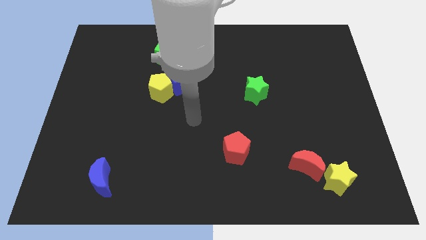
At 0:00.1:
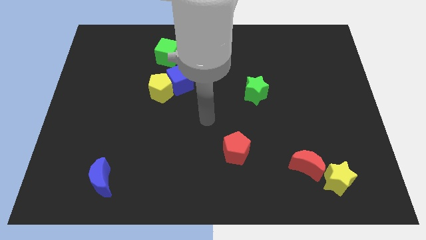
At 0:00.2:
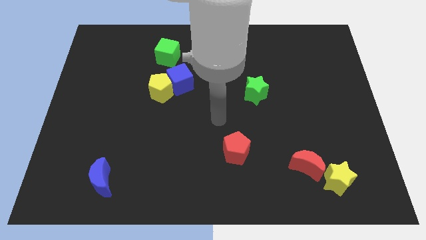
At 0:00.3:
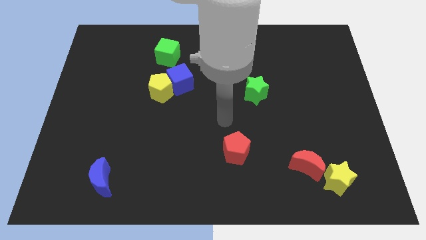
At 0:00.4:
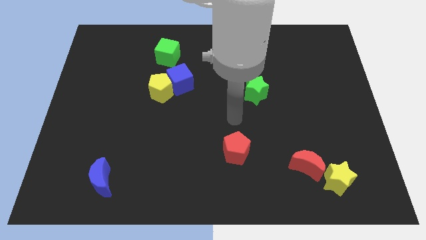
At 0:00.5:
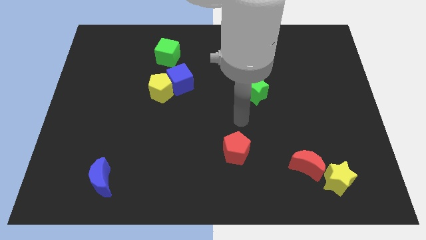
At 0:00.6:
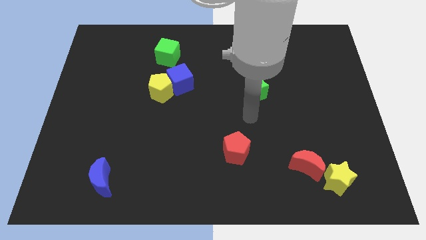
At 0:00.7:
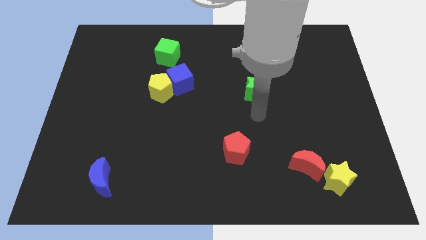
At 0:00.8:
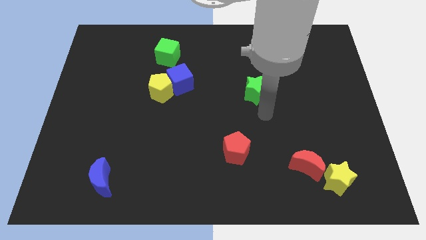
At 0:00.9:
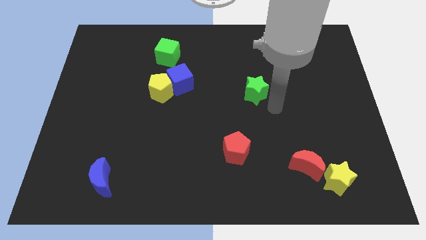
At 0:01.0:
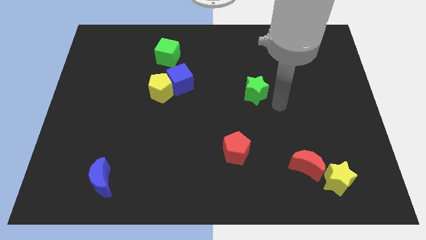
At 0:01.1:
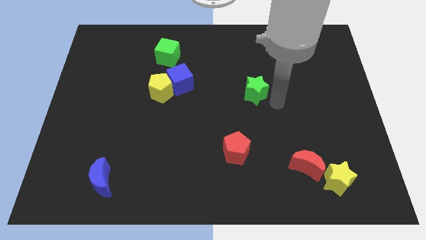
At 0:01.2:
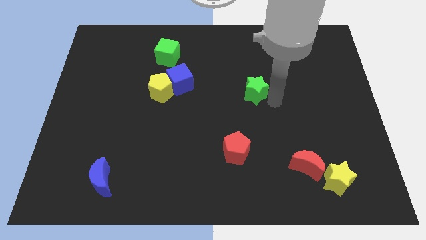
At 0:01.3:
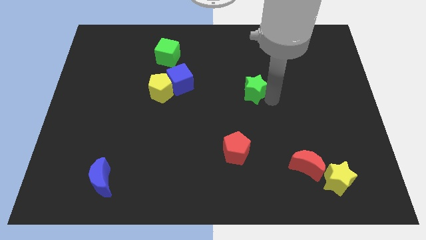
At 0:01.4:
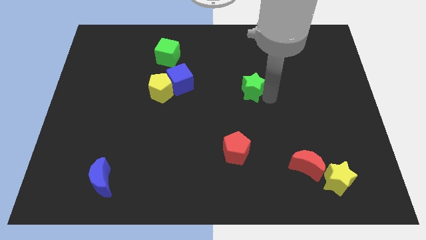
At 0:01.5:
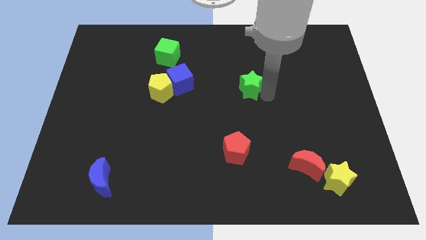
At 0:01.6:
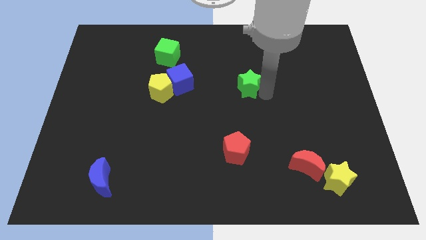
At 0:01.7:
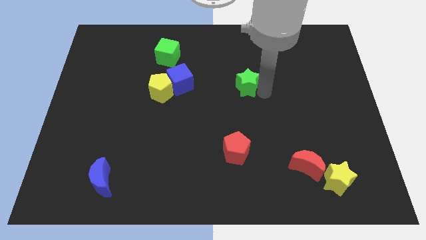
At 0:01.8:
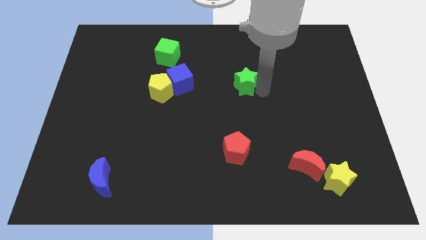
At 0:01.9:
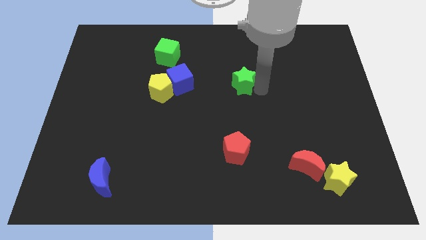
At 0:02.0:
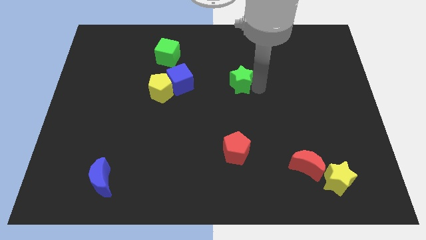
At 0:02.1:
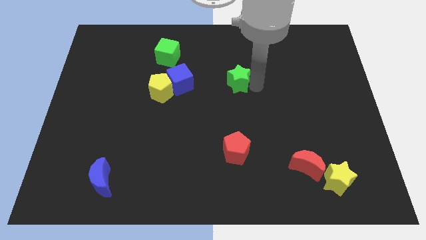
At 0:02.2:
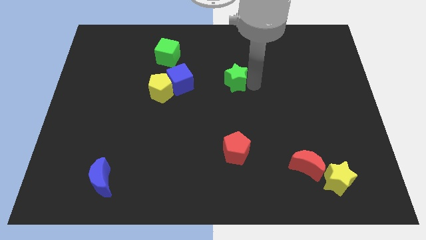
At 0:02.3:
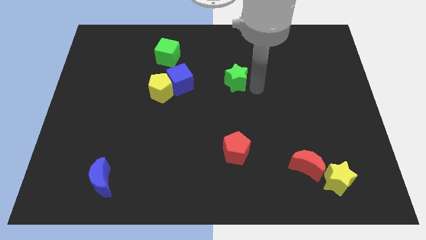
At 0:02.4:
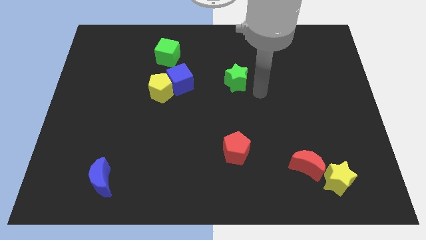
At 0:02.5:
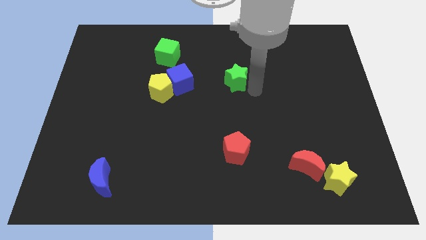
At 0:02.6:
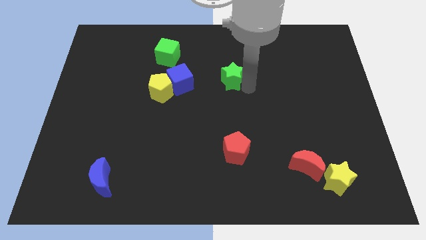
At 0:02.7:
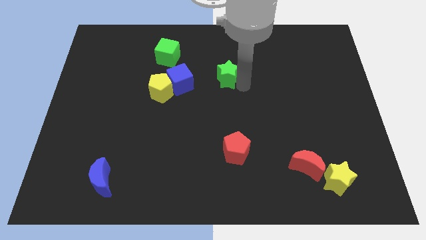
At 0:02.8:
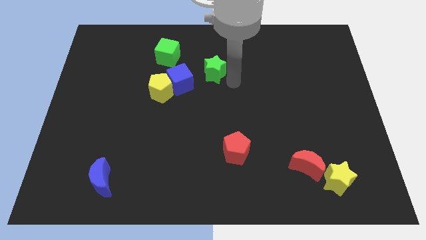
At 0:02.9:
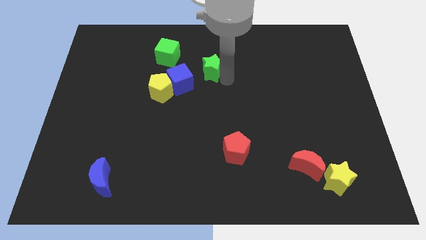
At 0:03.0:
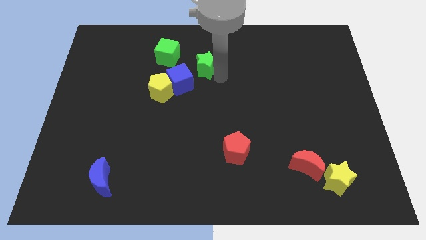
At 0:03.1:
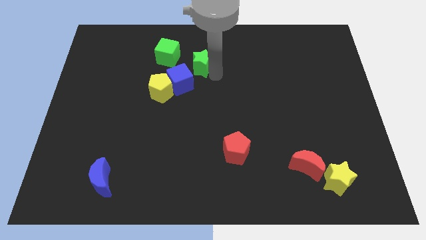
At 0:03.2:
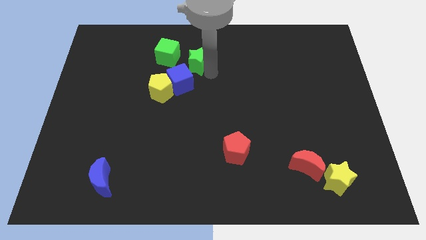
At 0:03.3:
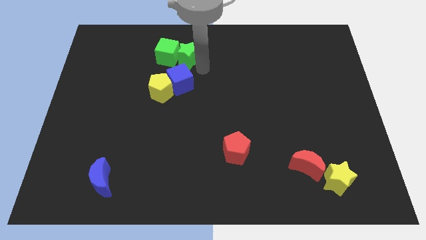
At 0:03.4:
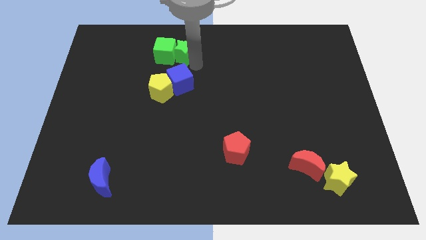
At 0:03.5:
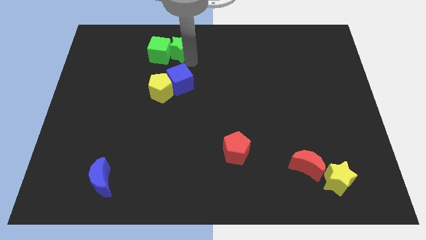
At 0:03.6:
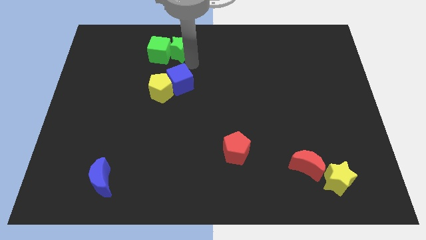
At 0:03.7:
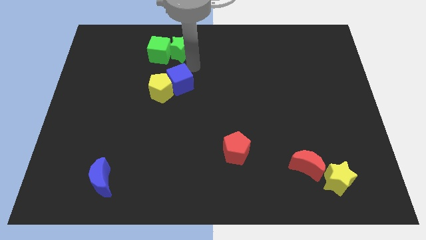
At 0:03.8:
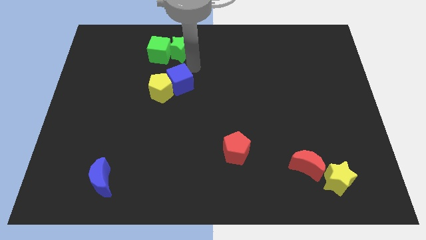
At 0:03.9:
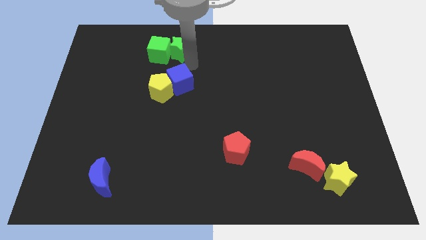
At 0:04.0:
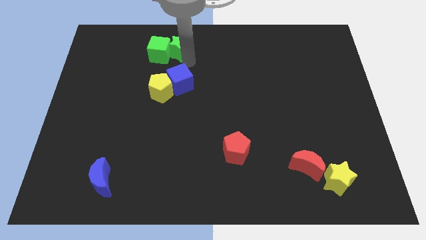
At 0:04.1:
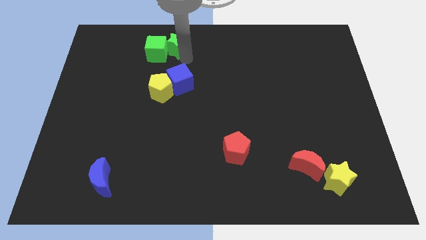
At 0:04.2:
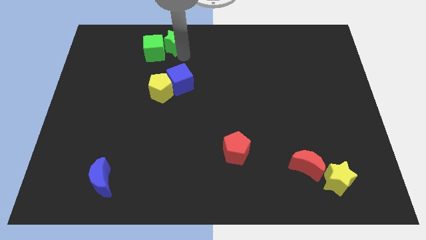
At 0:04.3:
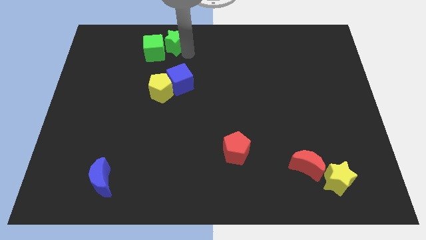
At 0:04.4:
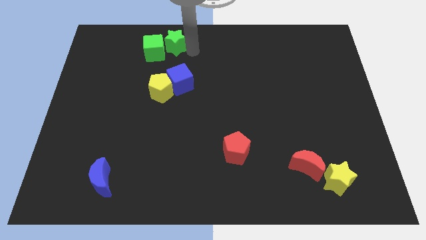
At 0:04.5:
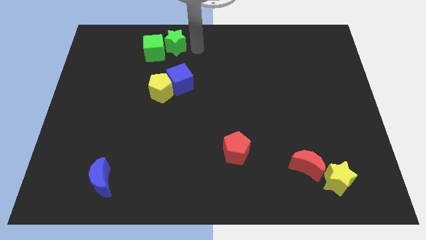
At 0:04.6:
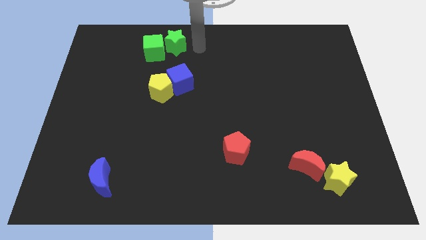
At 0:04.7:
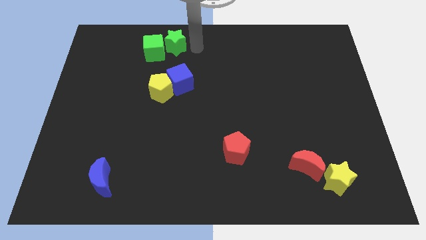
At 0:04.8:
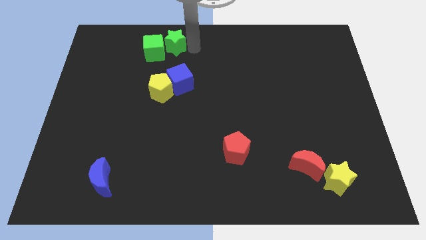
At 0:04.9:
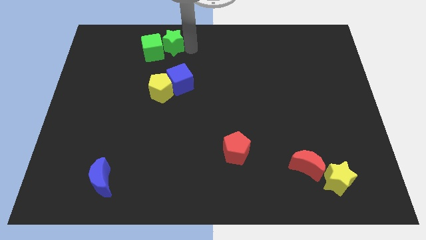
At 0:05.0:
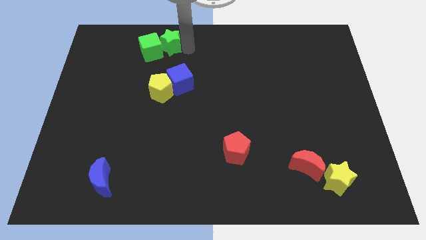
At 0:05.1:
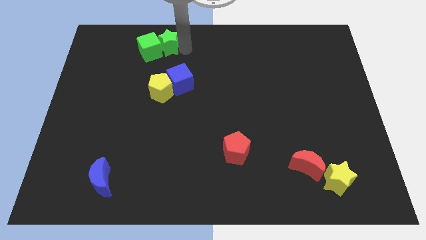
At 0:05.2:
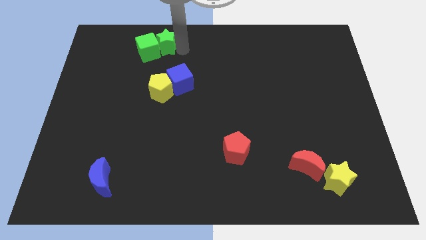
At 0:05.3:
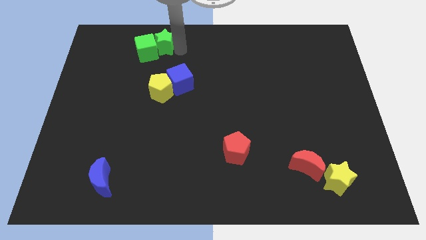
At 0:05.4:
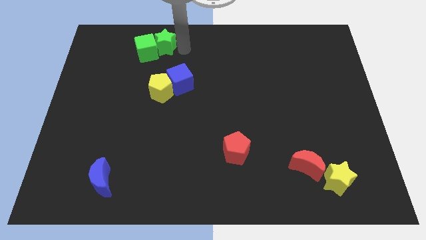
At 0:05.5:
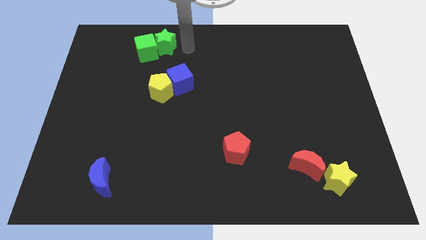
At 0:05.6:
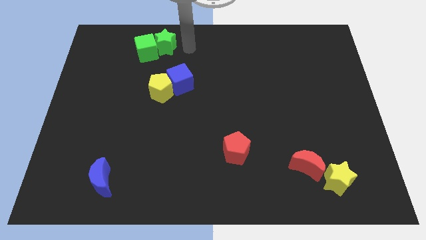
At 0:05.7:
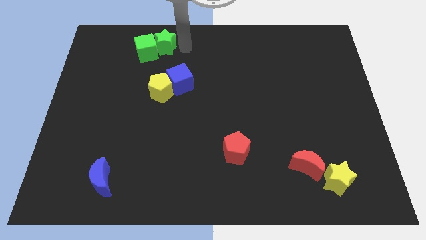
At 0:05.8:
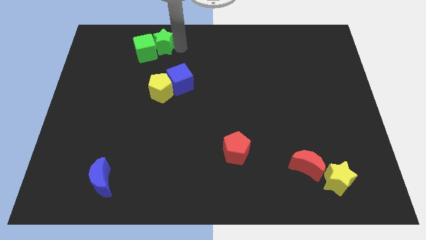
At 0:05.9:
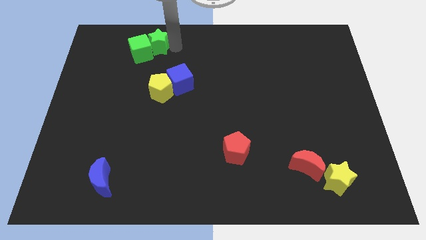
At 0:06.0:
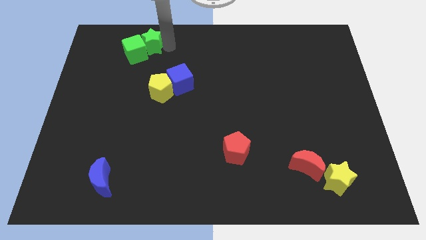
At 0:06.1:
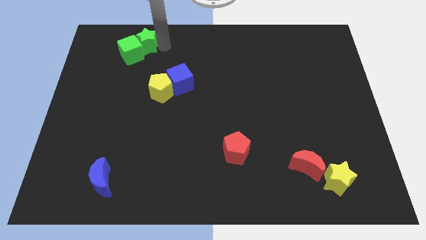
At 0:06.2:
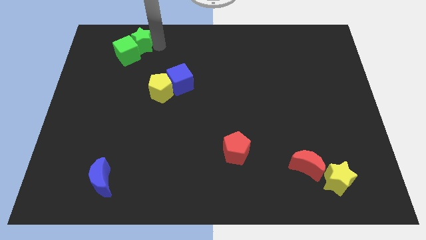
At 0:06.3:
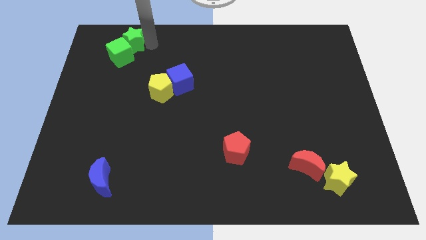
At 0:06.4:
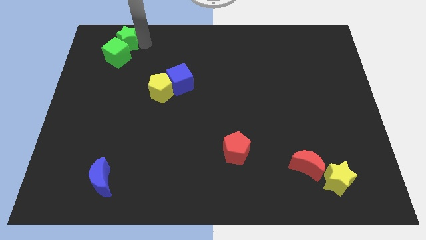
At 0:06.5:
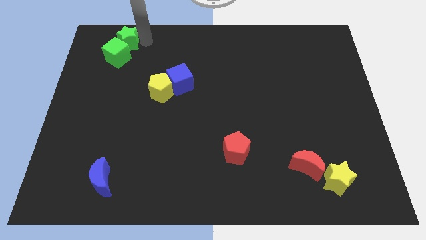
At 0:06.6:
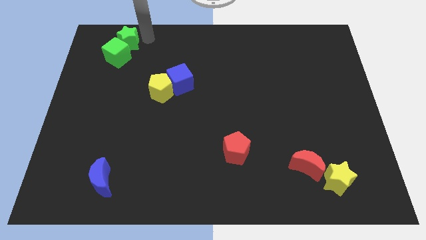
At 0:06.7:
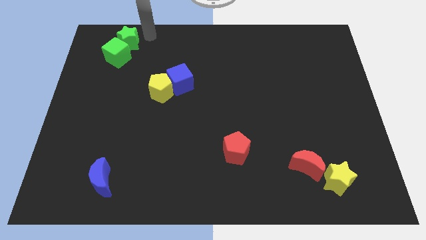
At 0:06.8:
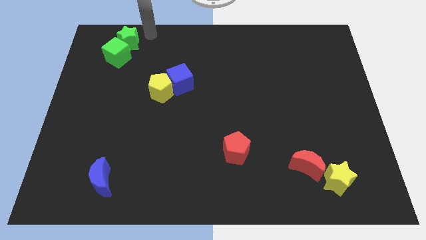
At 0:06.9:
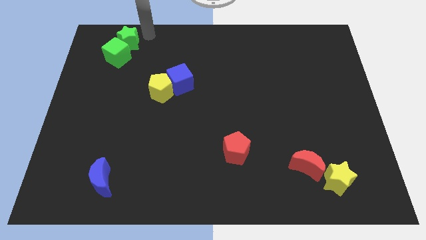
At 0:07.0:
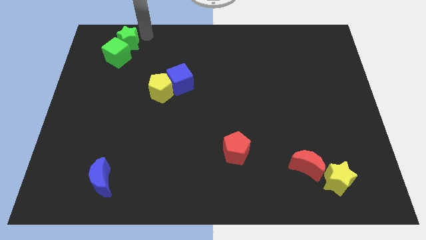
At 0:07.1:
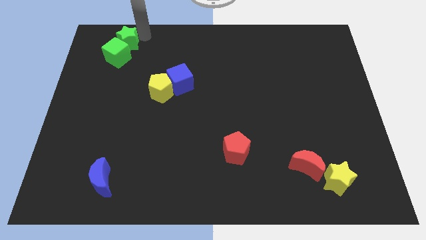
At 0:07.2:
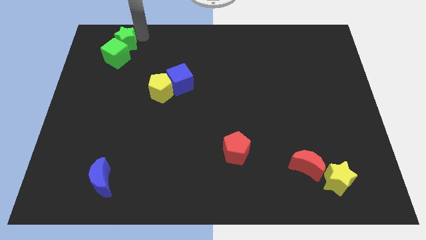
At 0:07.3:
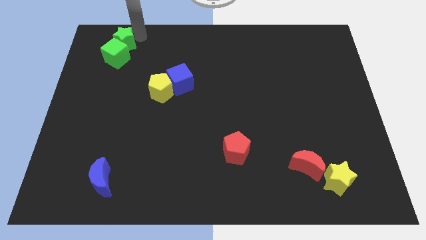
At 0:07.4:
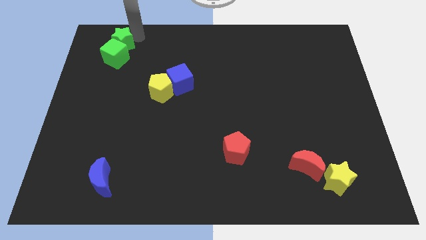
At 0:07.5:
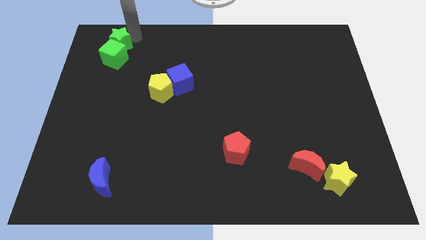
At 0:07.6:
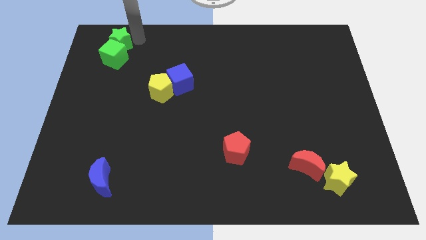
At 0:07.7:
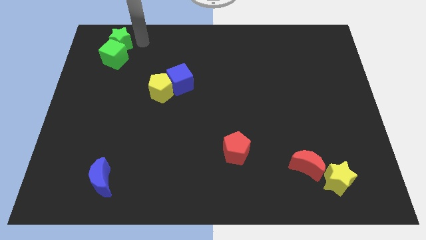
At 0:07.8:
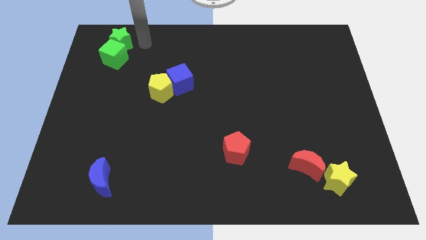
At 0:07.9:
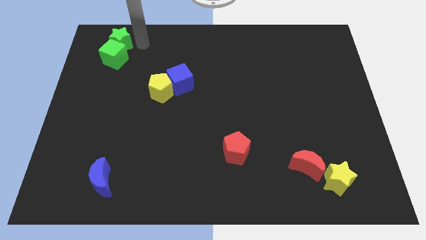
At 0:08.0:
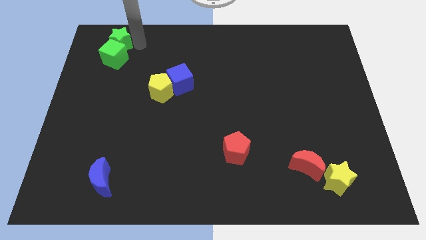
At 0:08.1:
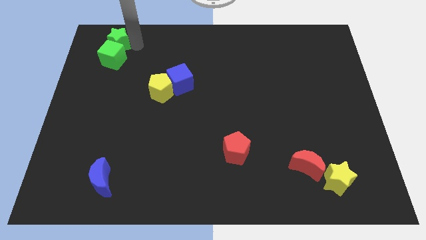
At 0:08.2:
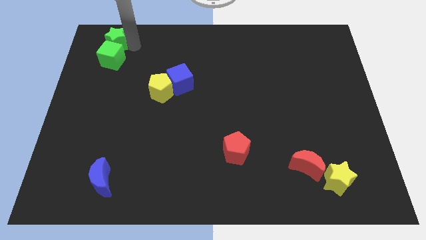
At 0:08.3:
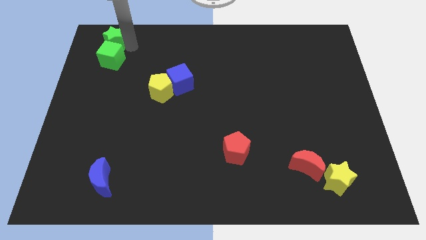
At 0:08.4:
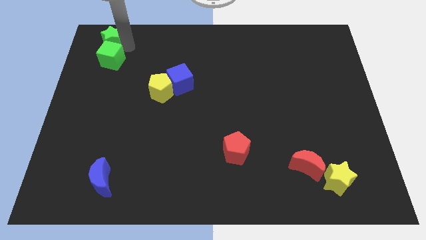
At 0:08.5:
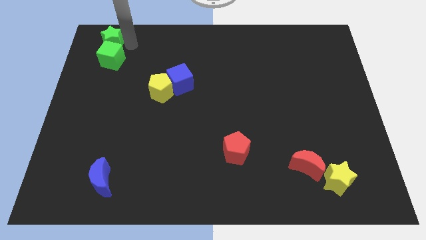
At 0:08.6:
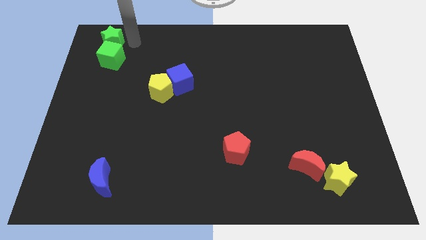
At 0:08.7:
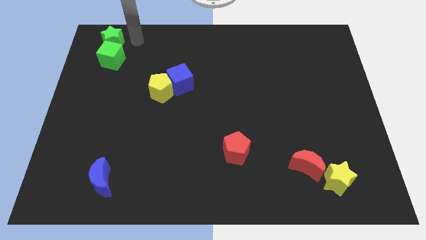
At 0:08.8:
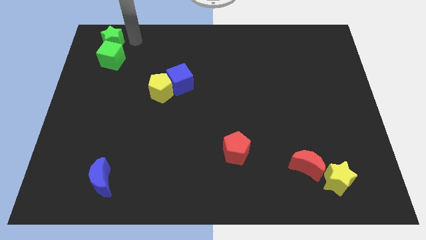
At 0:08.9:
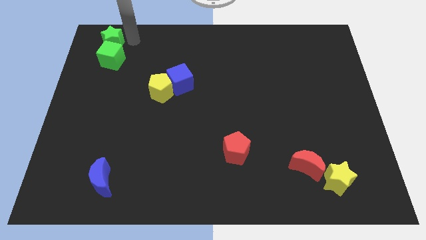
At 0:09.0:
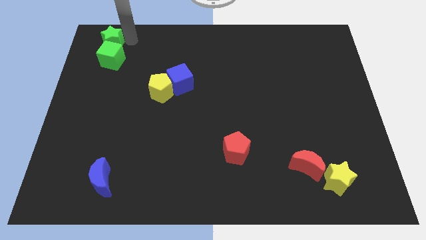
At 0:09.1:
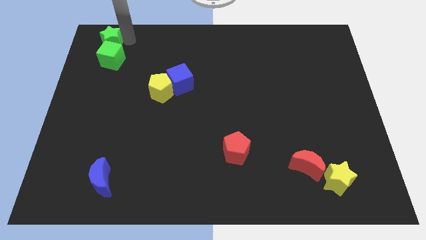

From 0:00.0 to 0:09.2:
move the green star to the top left corner
